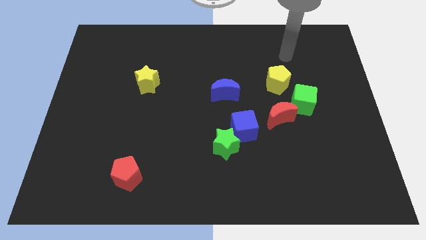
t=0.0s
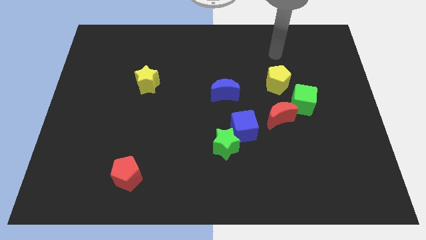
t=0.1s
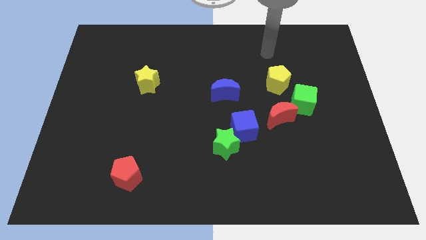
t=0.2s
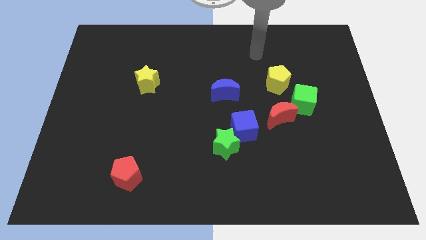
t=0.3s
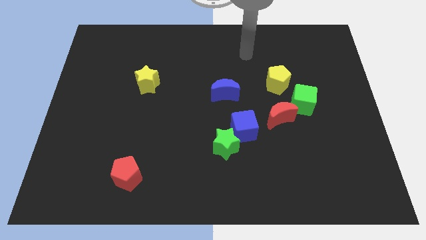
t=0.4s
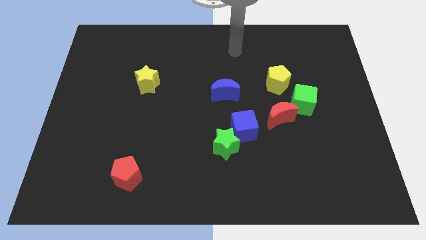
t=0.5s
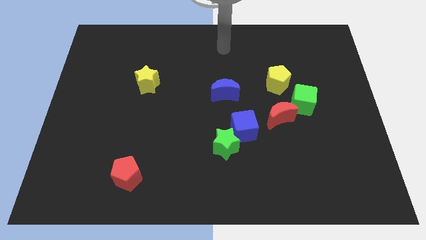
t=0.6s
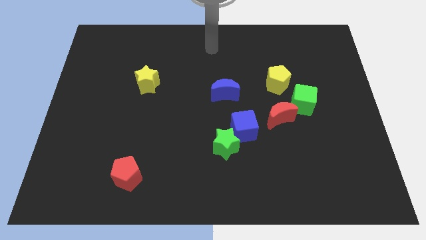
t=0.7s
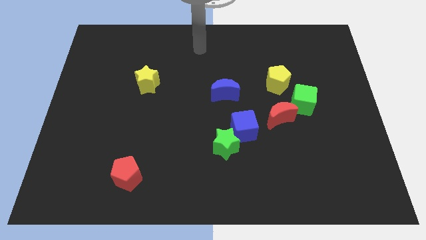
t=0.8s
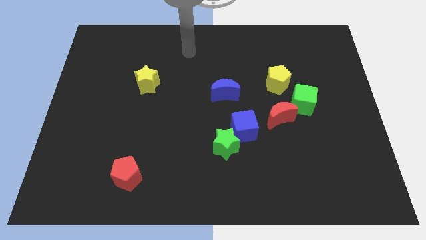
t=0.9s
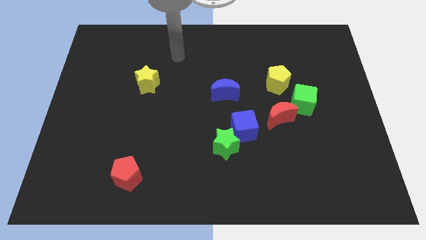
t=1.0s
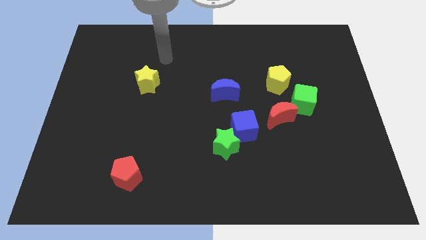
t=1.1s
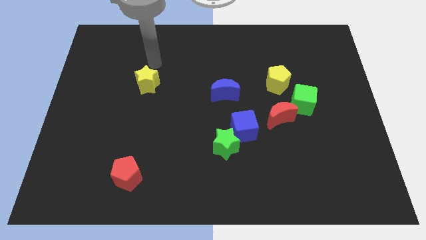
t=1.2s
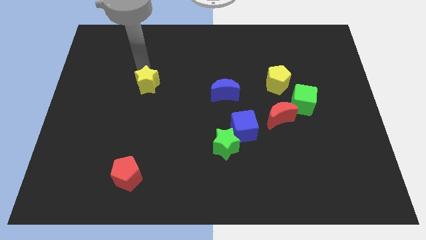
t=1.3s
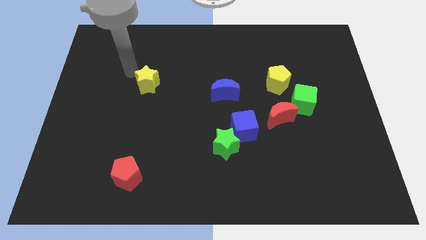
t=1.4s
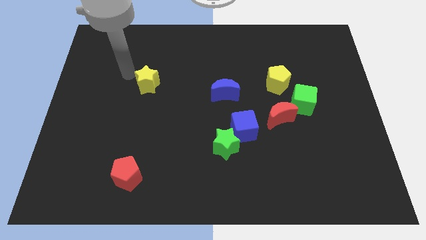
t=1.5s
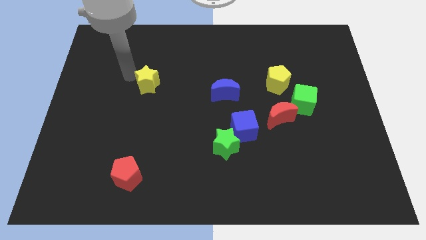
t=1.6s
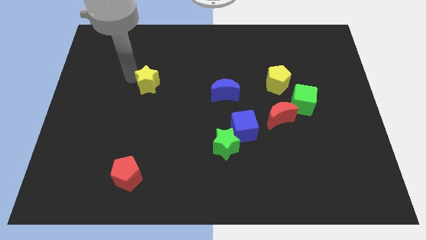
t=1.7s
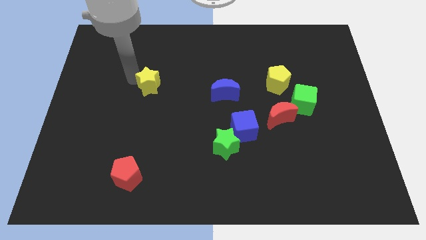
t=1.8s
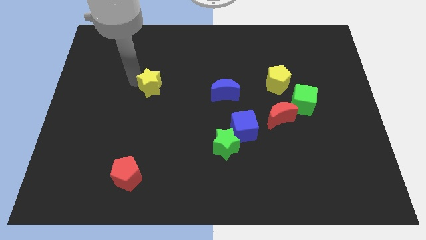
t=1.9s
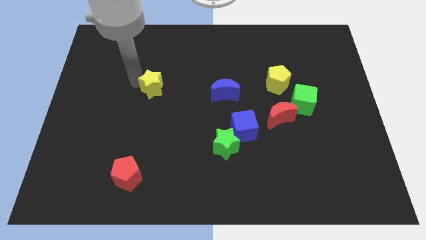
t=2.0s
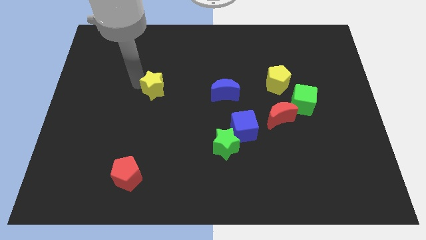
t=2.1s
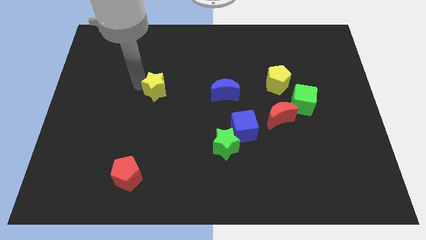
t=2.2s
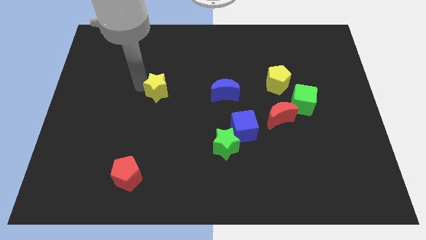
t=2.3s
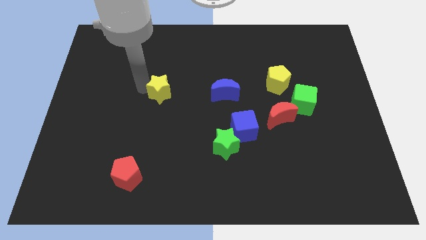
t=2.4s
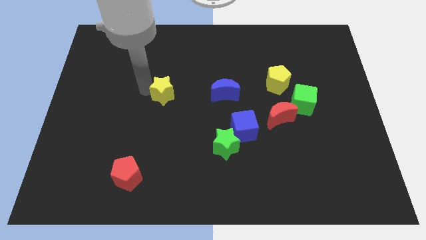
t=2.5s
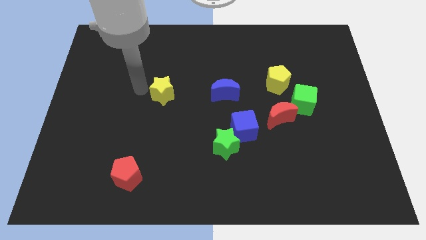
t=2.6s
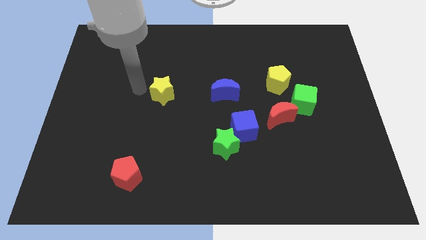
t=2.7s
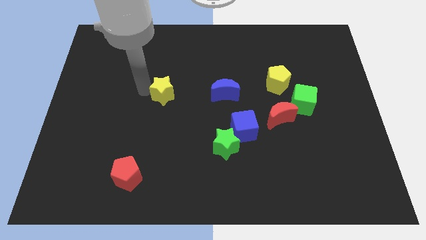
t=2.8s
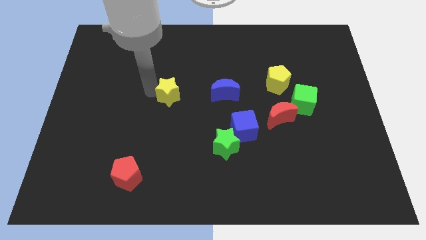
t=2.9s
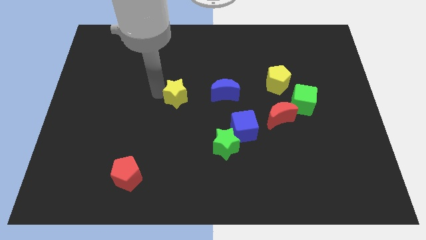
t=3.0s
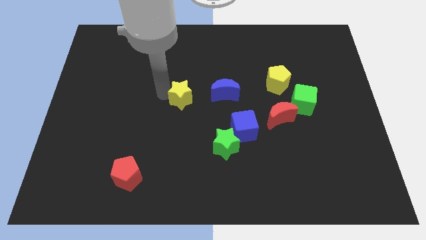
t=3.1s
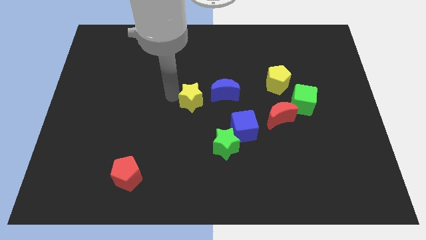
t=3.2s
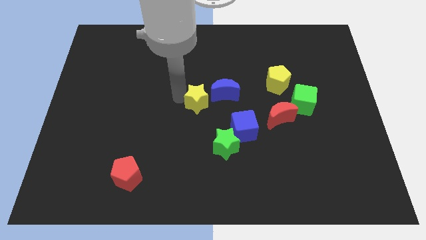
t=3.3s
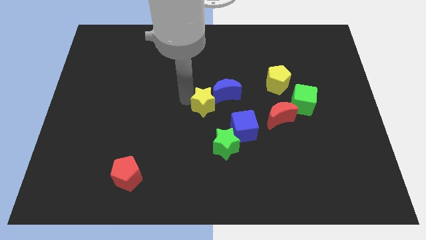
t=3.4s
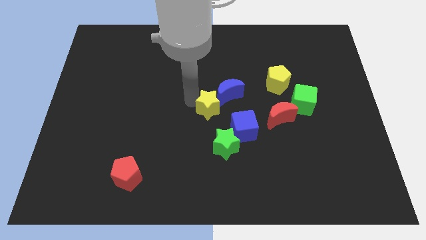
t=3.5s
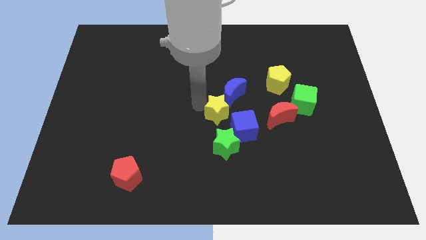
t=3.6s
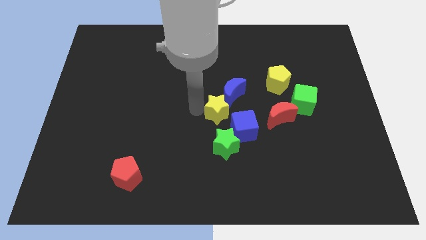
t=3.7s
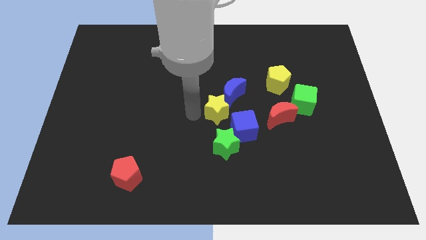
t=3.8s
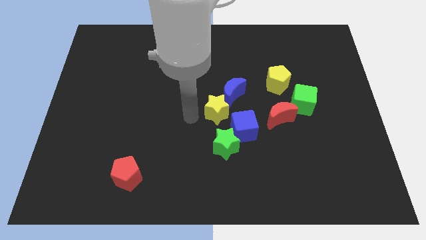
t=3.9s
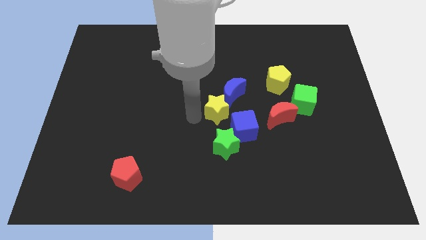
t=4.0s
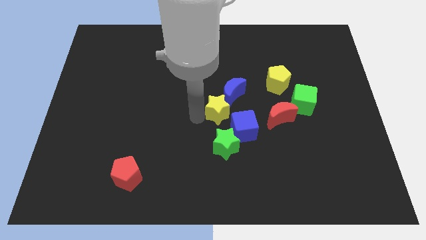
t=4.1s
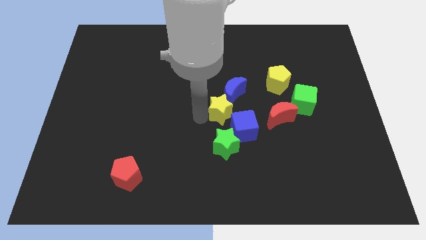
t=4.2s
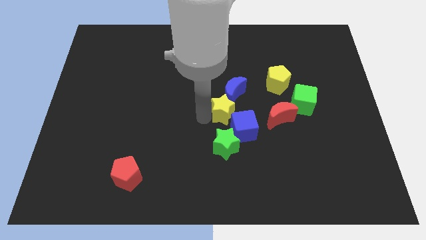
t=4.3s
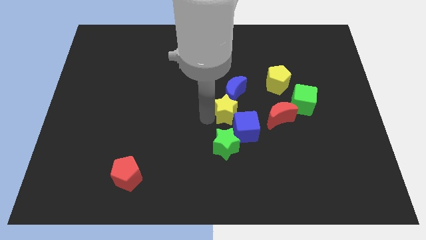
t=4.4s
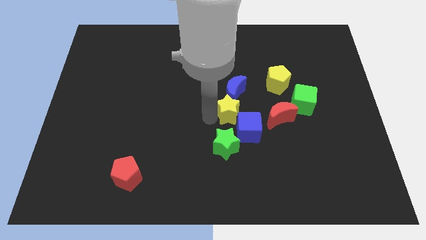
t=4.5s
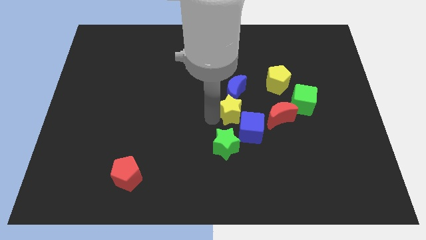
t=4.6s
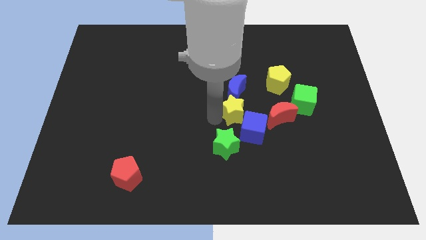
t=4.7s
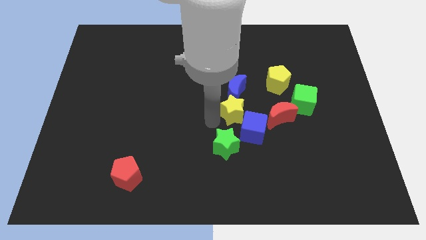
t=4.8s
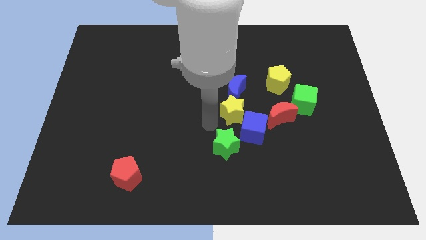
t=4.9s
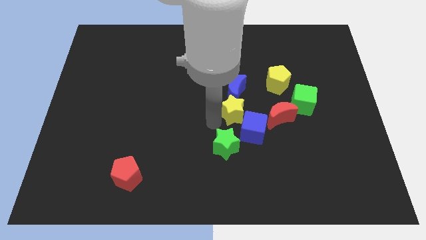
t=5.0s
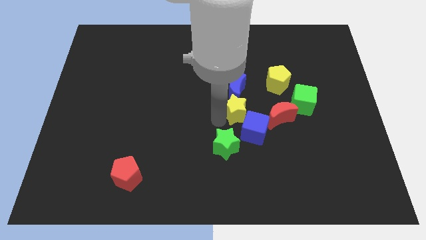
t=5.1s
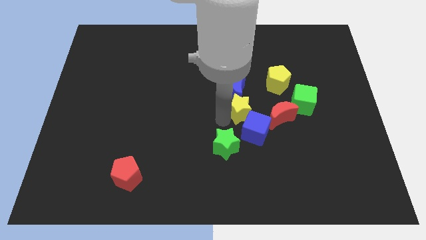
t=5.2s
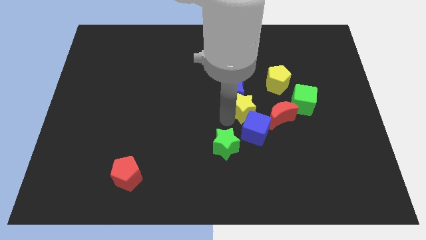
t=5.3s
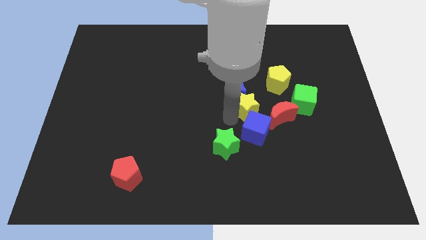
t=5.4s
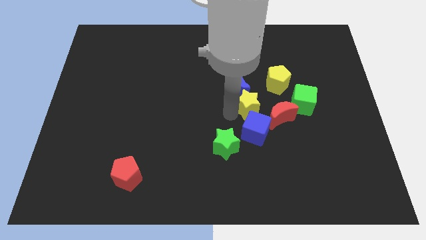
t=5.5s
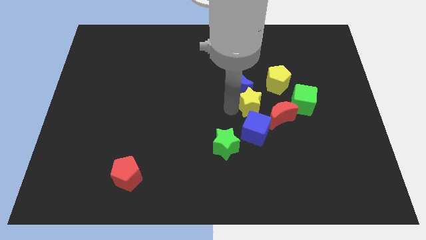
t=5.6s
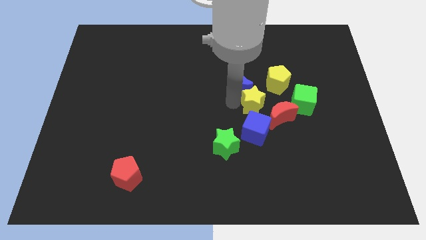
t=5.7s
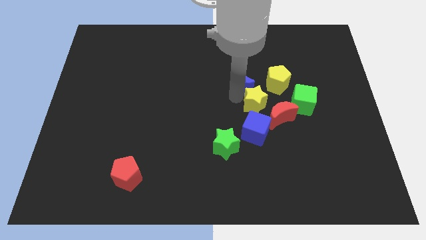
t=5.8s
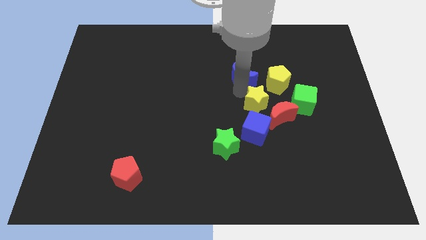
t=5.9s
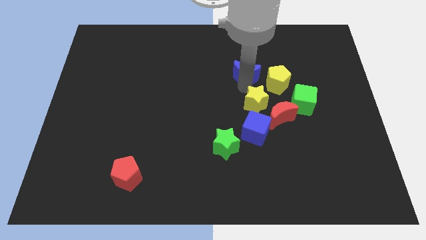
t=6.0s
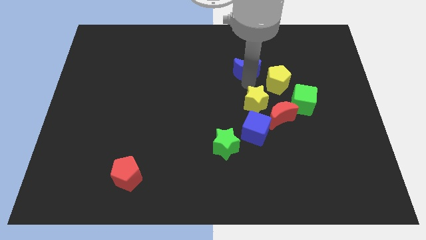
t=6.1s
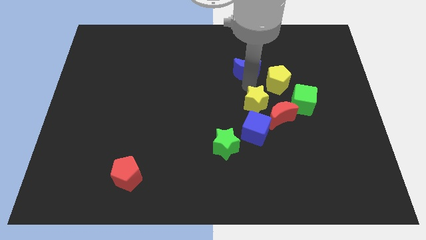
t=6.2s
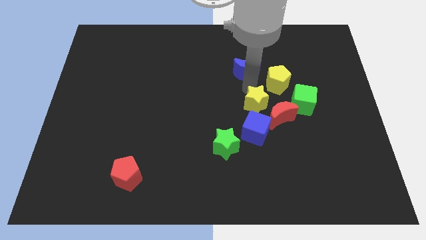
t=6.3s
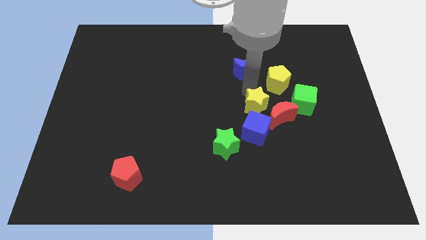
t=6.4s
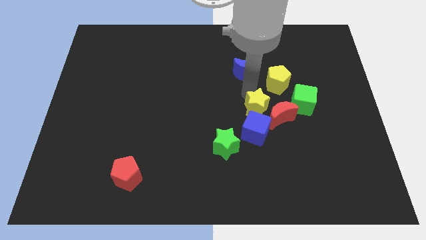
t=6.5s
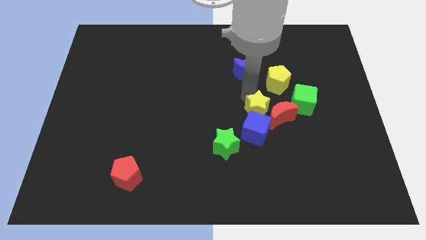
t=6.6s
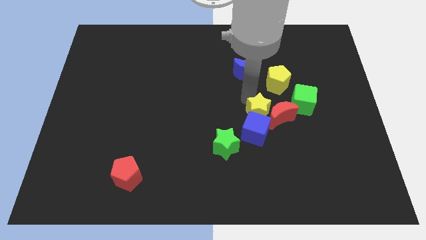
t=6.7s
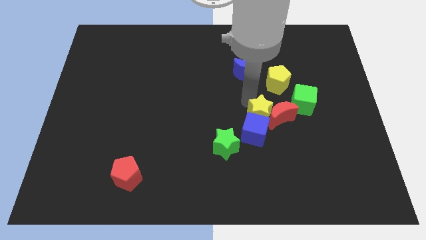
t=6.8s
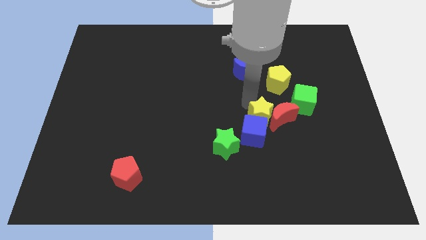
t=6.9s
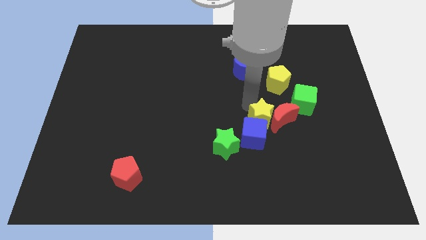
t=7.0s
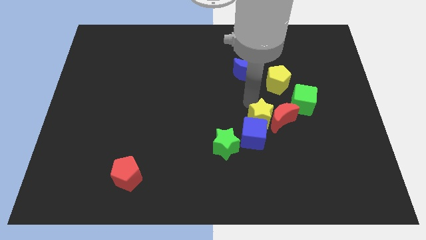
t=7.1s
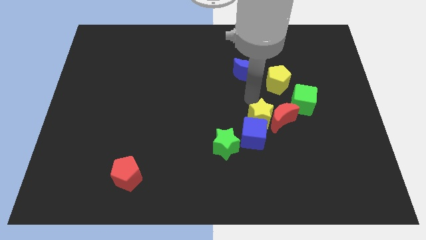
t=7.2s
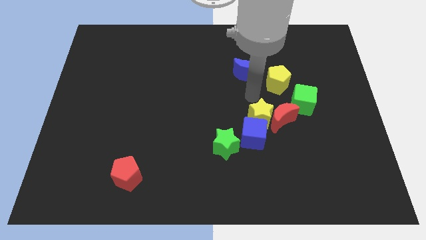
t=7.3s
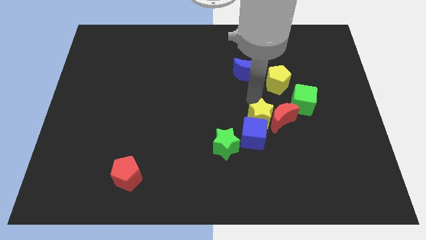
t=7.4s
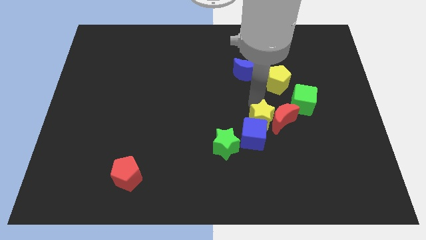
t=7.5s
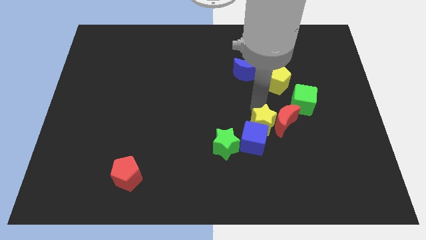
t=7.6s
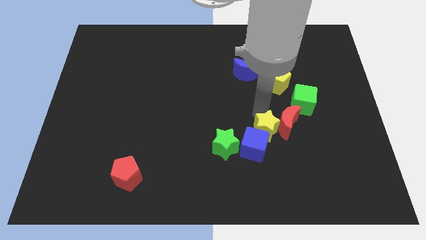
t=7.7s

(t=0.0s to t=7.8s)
push the yellow star just right of the green star
